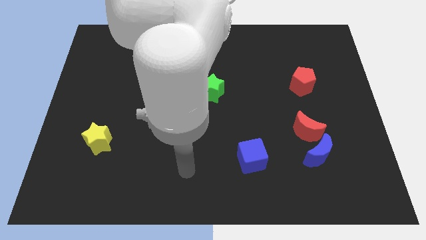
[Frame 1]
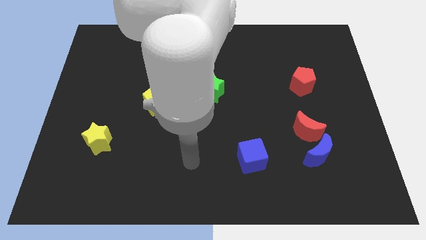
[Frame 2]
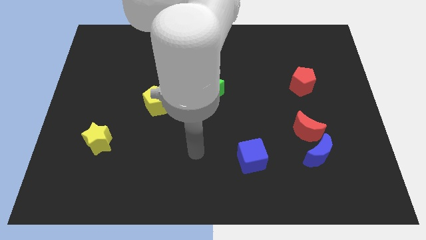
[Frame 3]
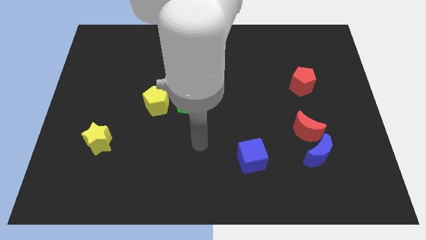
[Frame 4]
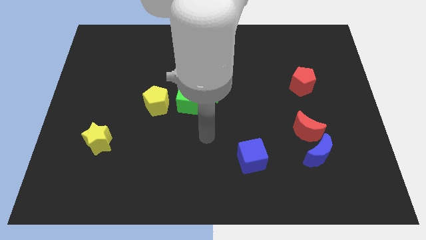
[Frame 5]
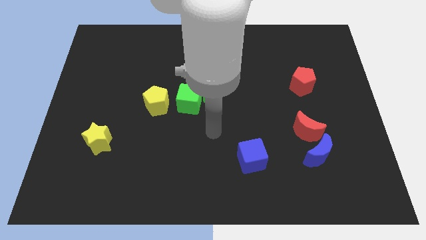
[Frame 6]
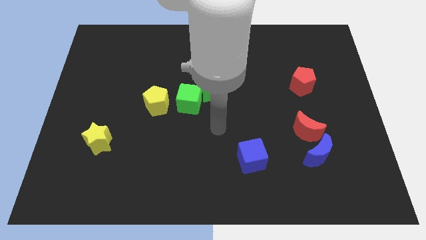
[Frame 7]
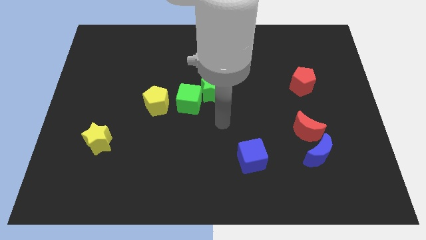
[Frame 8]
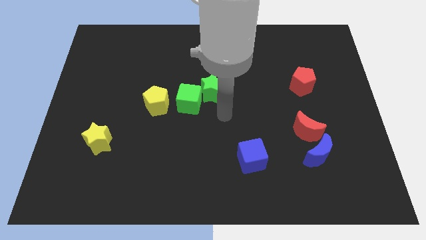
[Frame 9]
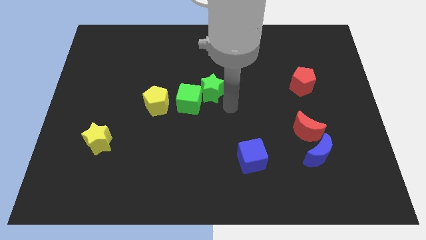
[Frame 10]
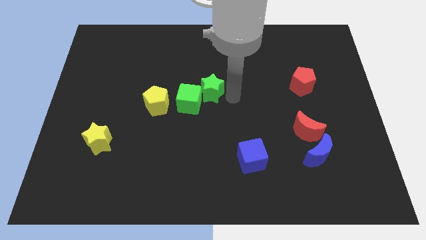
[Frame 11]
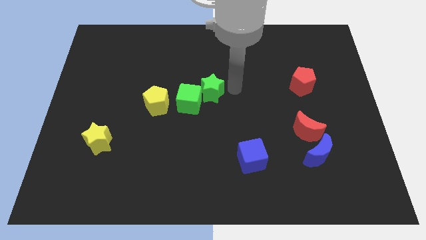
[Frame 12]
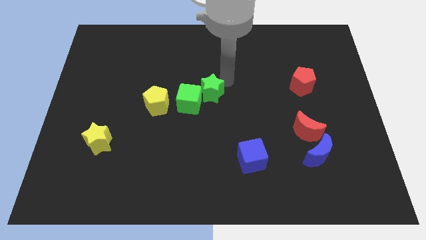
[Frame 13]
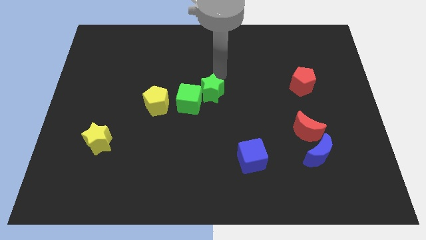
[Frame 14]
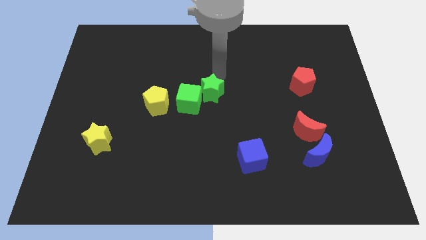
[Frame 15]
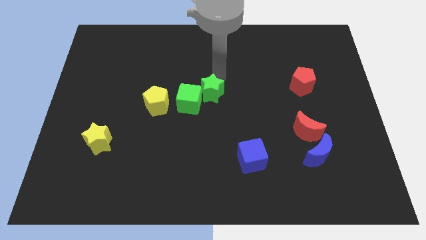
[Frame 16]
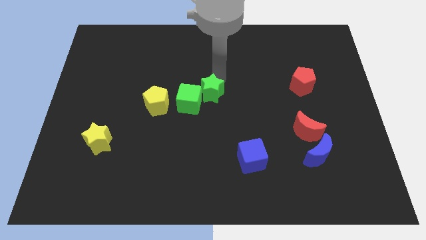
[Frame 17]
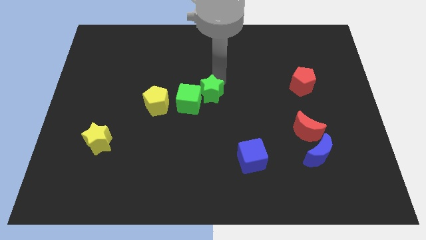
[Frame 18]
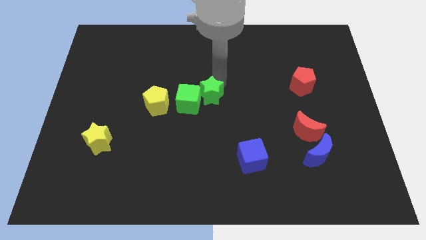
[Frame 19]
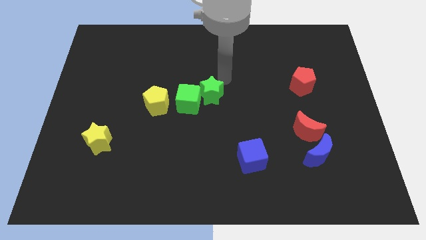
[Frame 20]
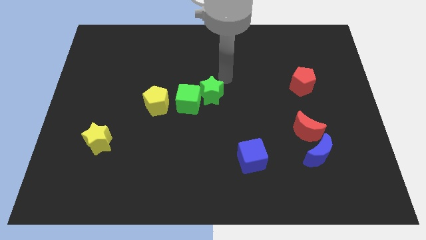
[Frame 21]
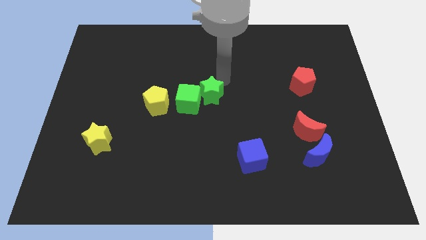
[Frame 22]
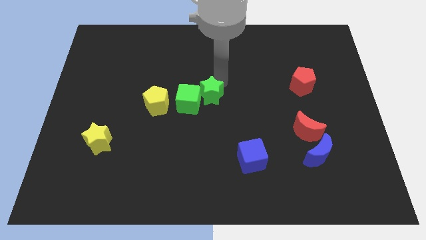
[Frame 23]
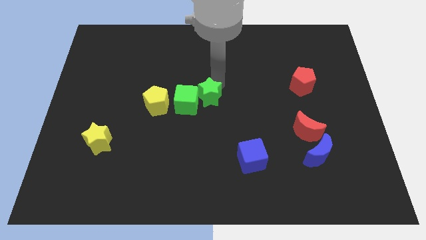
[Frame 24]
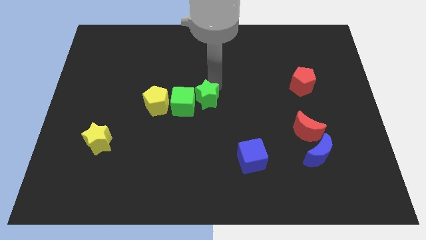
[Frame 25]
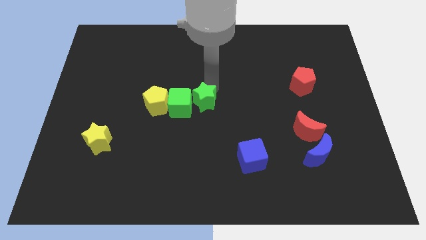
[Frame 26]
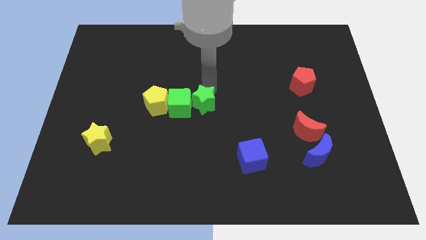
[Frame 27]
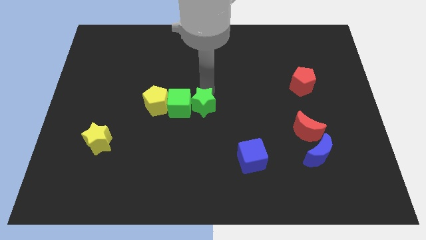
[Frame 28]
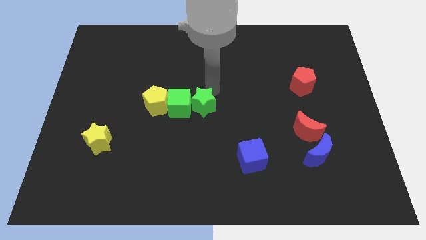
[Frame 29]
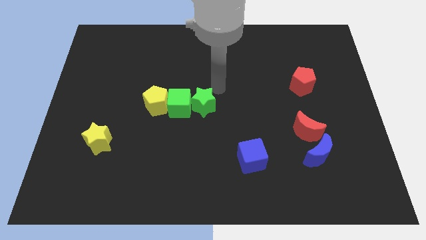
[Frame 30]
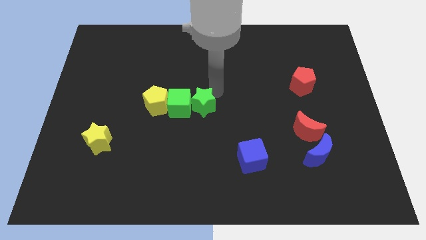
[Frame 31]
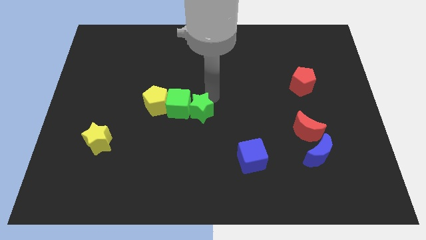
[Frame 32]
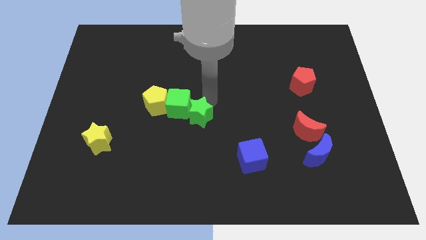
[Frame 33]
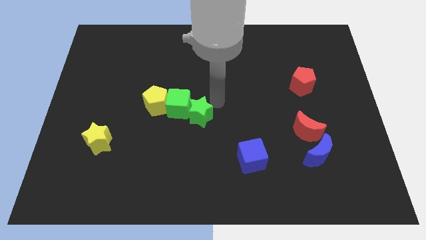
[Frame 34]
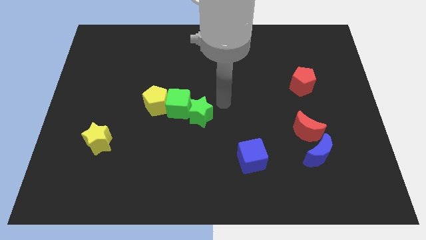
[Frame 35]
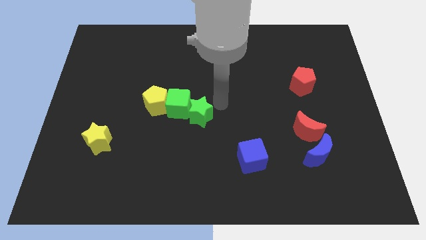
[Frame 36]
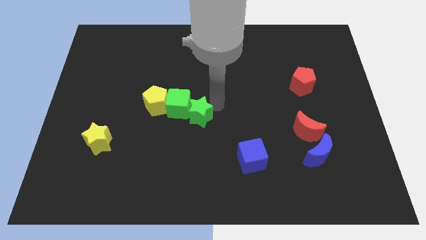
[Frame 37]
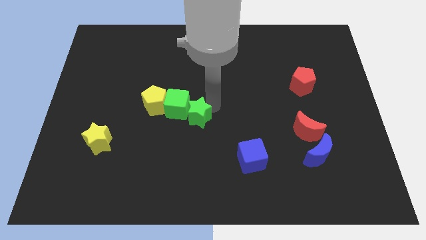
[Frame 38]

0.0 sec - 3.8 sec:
move the green star a little bit downwards and to the left

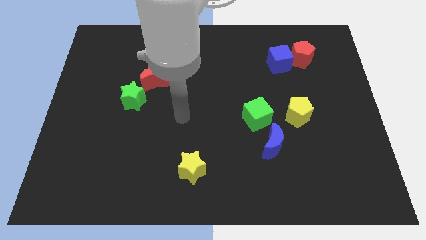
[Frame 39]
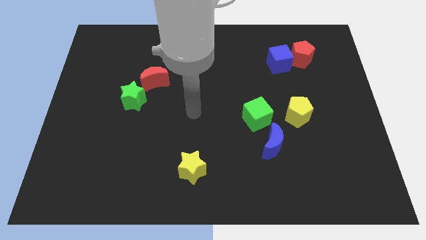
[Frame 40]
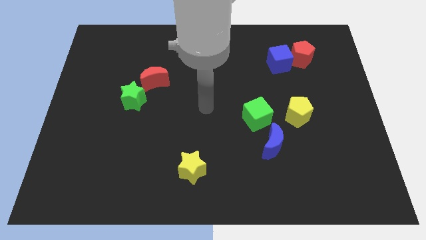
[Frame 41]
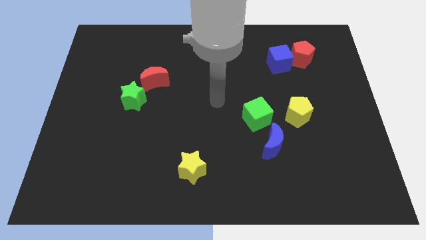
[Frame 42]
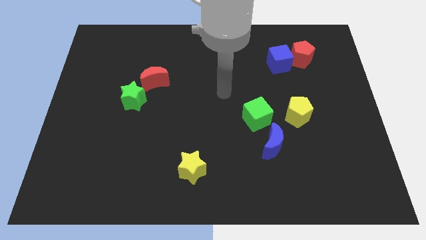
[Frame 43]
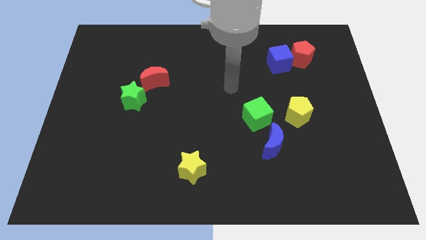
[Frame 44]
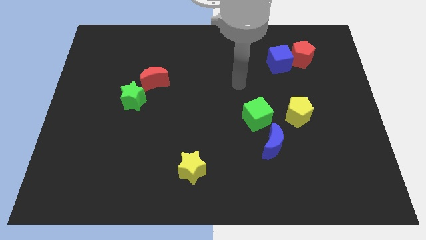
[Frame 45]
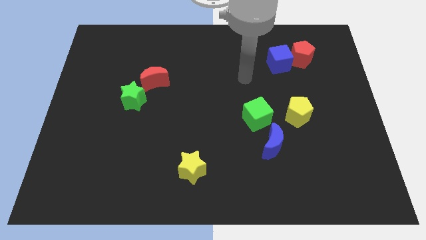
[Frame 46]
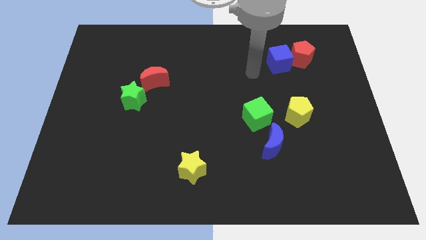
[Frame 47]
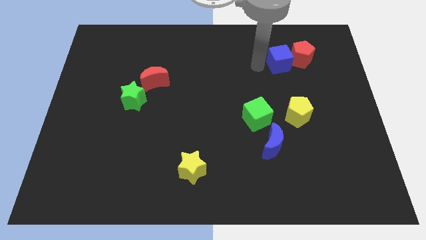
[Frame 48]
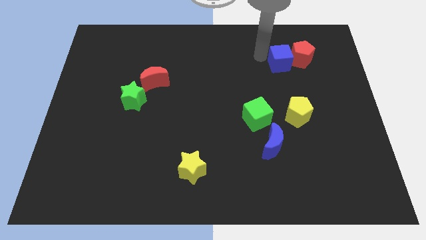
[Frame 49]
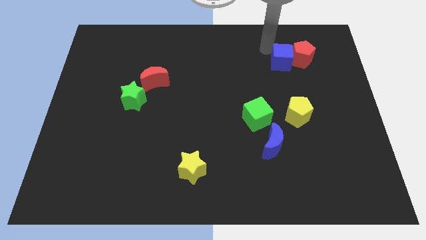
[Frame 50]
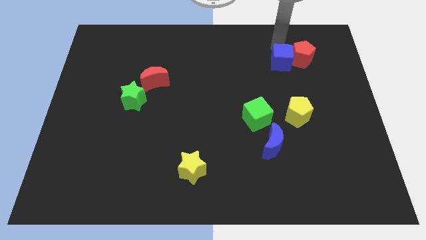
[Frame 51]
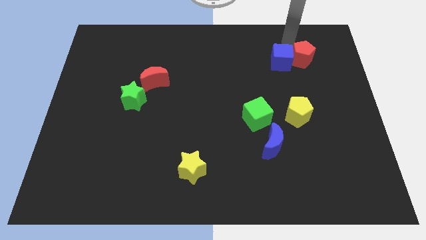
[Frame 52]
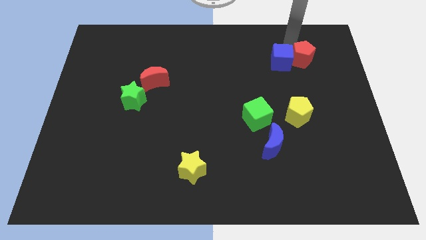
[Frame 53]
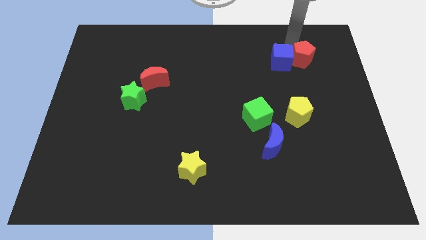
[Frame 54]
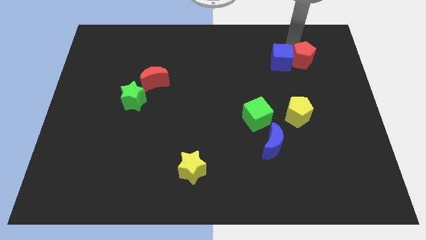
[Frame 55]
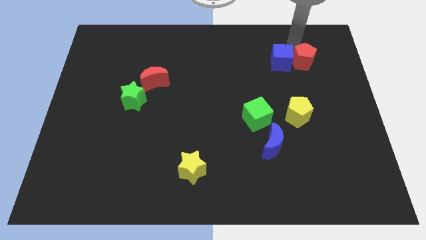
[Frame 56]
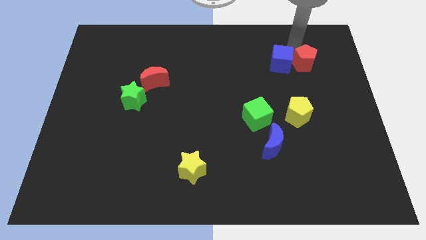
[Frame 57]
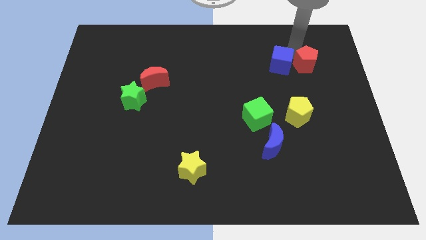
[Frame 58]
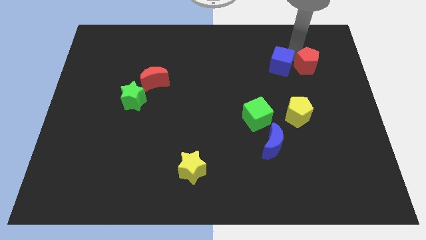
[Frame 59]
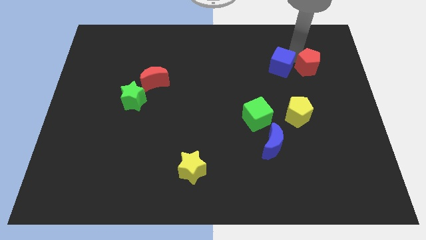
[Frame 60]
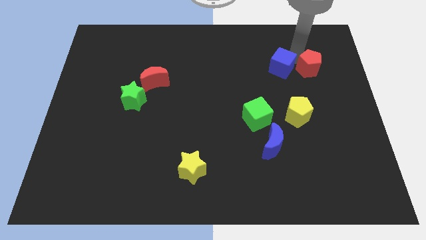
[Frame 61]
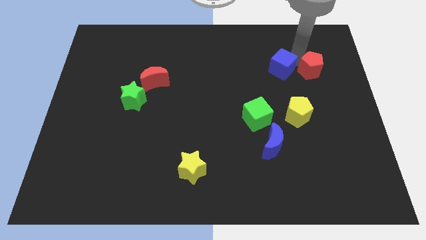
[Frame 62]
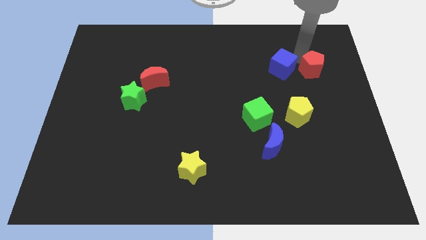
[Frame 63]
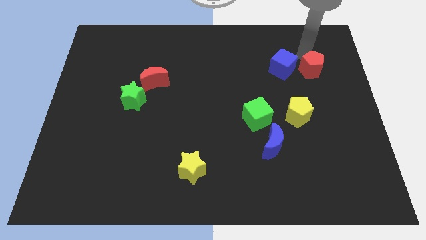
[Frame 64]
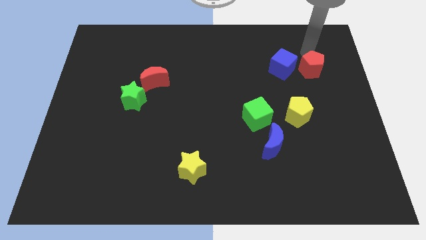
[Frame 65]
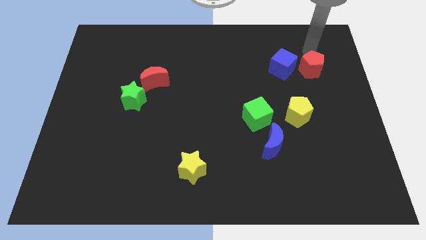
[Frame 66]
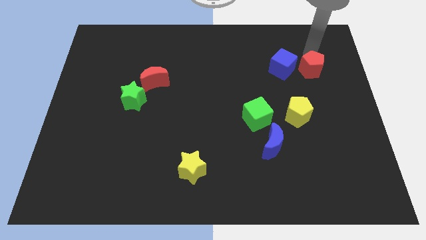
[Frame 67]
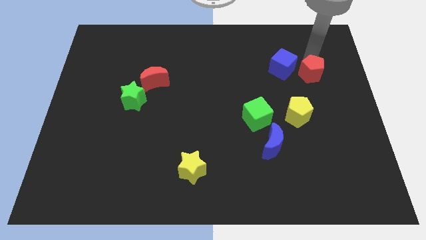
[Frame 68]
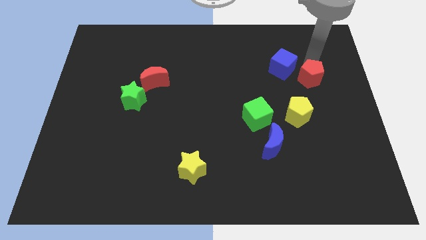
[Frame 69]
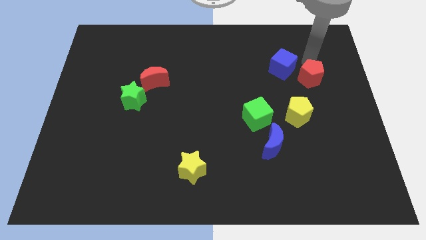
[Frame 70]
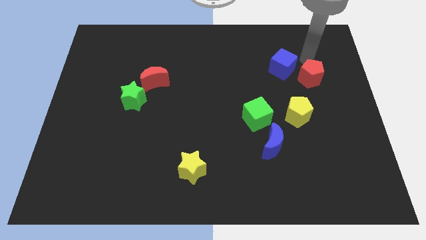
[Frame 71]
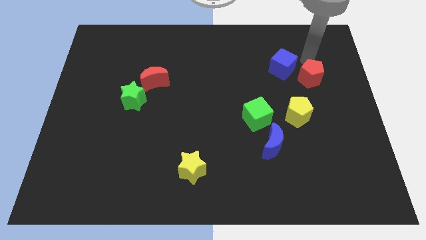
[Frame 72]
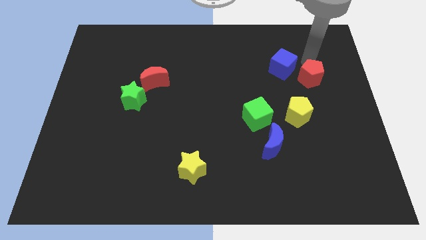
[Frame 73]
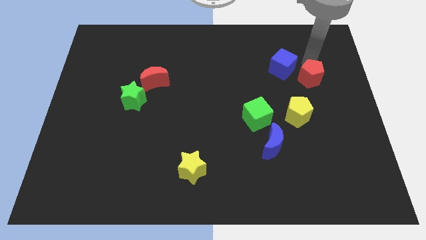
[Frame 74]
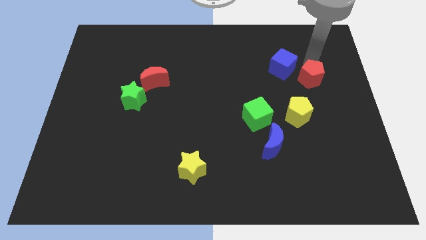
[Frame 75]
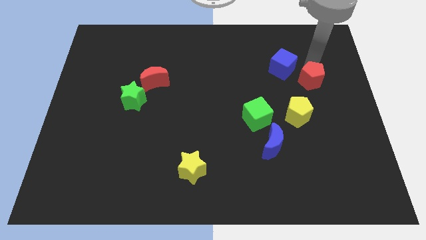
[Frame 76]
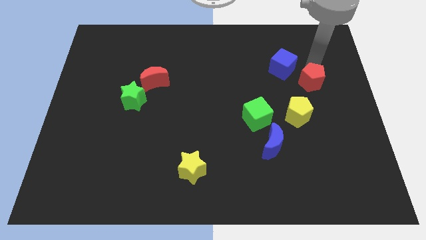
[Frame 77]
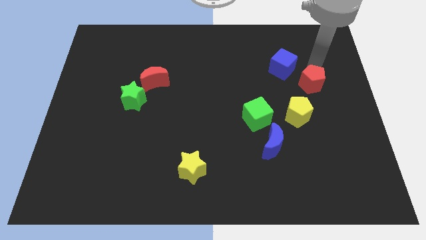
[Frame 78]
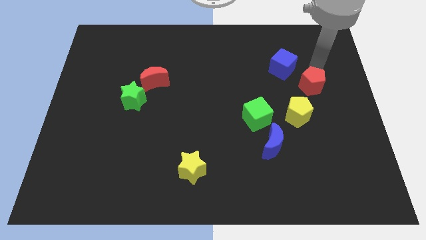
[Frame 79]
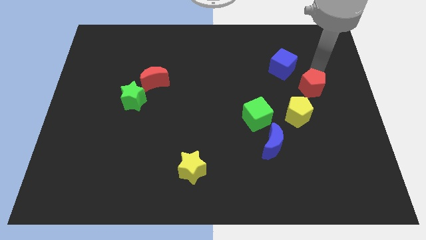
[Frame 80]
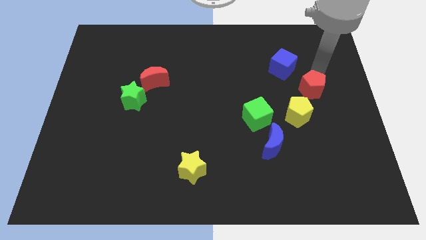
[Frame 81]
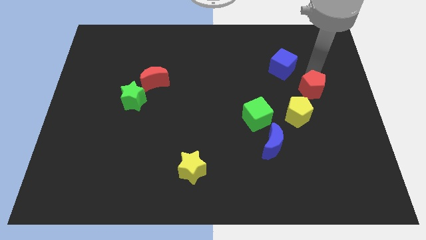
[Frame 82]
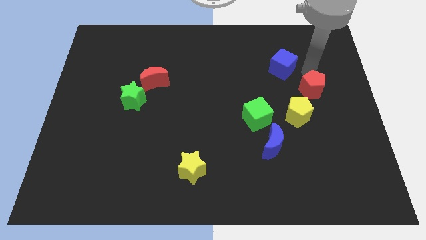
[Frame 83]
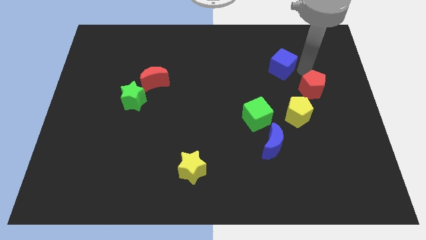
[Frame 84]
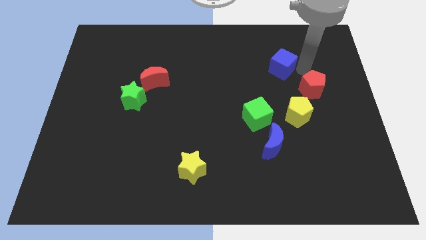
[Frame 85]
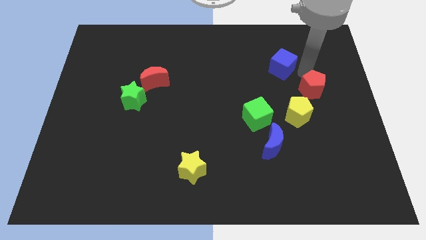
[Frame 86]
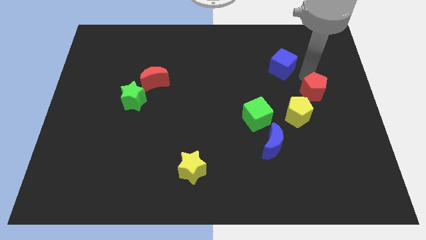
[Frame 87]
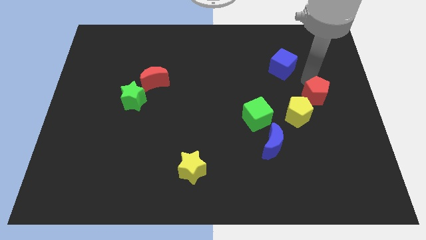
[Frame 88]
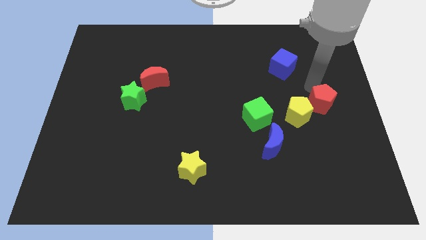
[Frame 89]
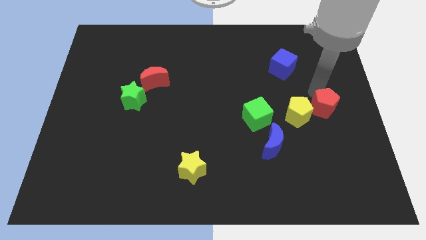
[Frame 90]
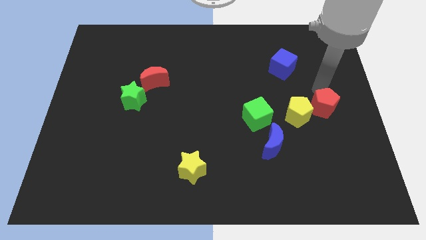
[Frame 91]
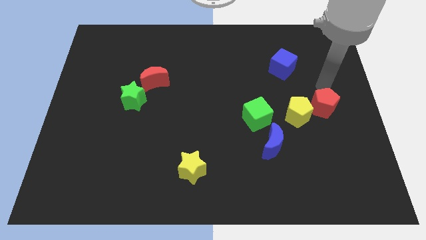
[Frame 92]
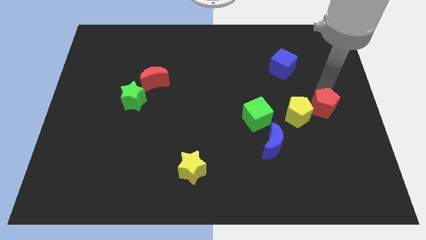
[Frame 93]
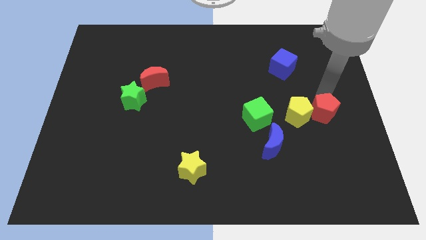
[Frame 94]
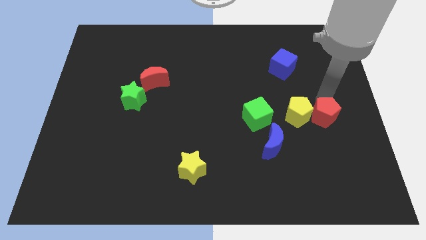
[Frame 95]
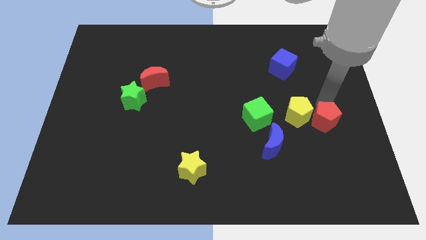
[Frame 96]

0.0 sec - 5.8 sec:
push the red pentagon downwards
